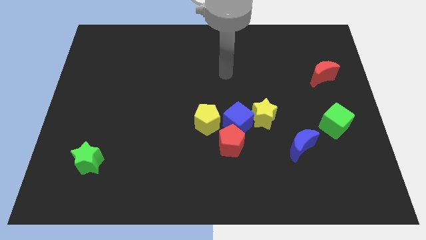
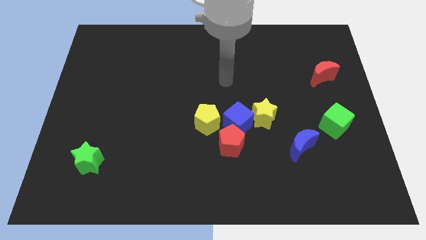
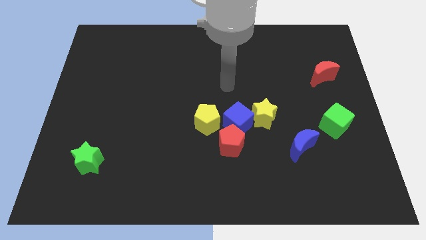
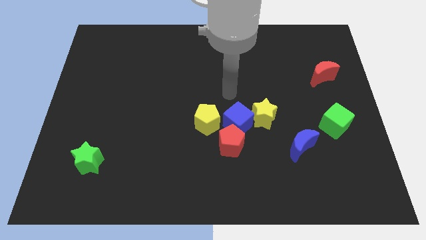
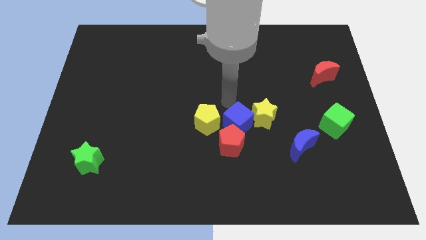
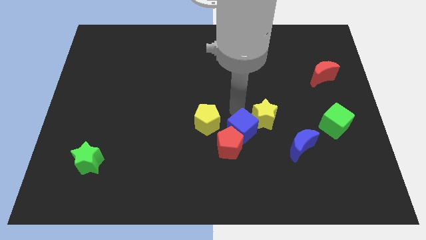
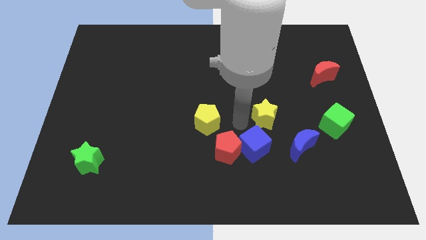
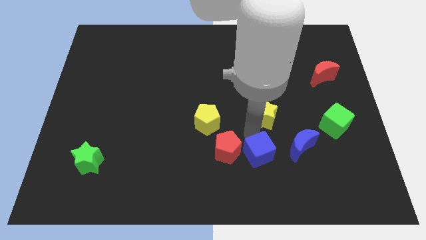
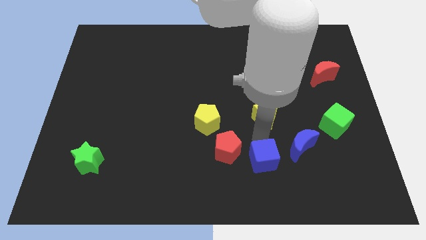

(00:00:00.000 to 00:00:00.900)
move the yellow star away from the blue cube

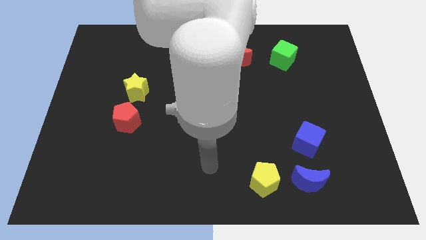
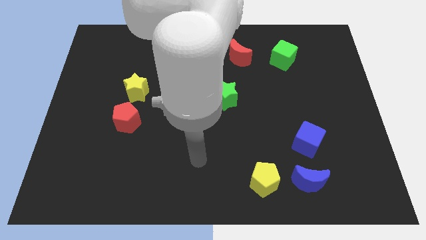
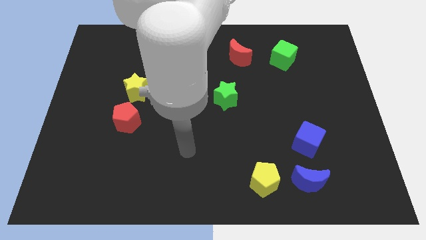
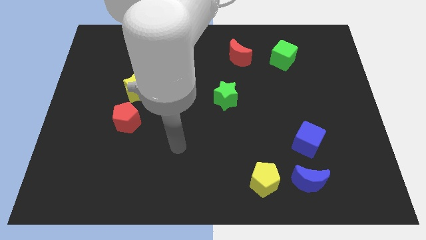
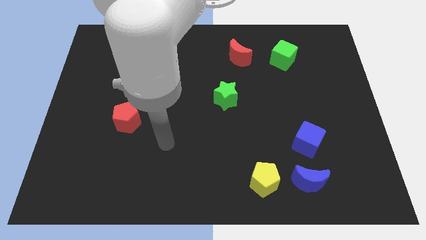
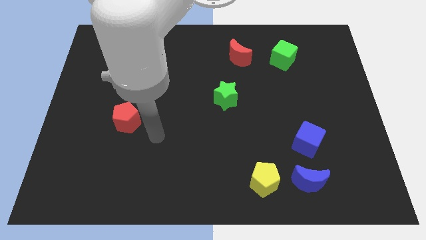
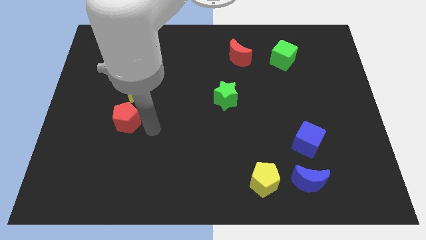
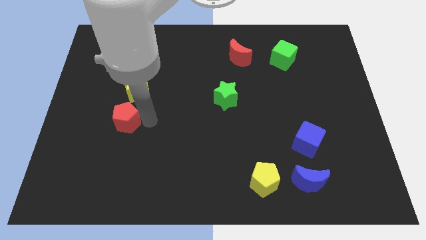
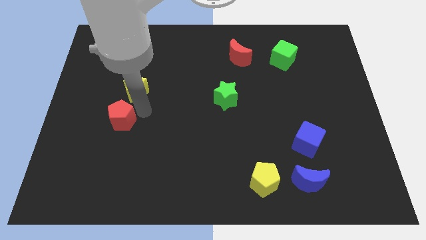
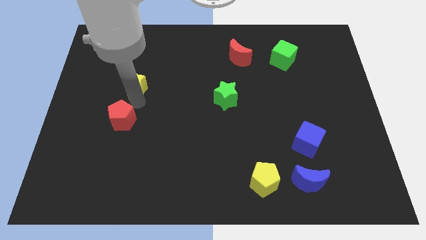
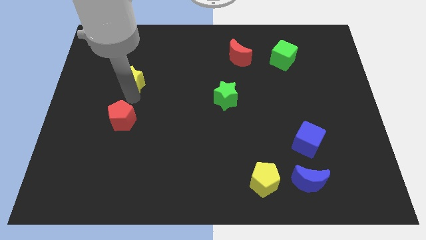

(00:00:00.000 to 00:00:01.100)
move the red pentagon away from the yellow star

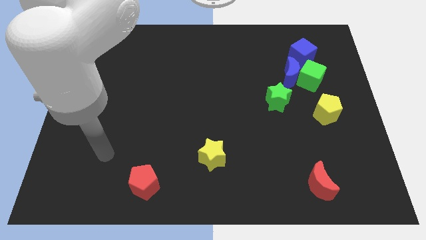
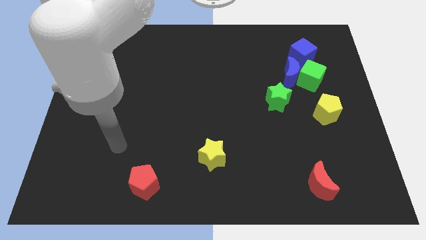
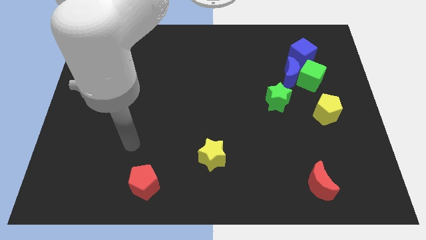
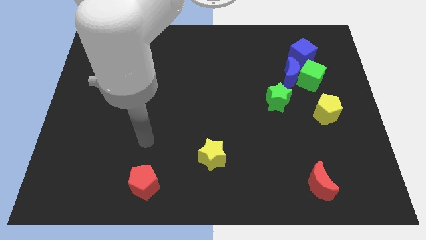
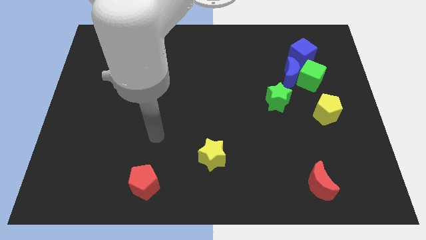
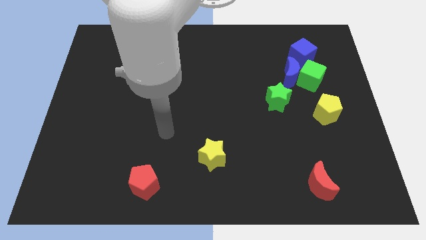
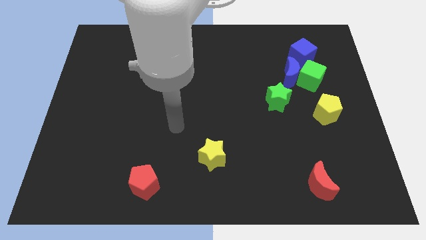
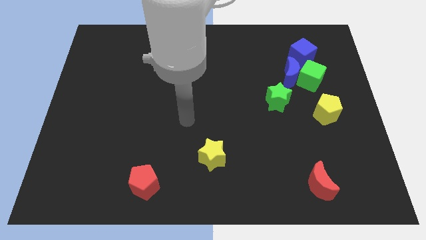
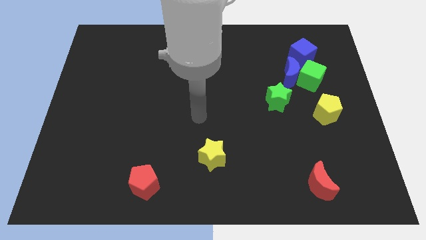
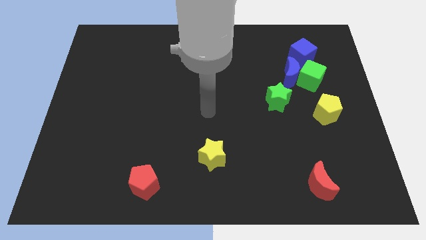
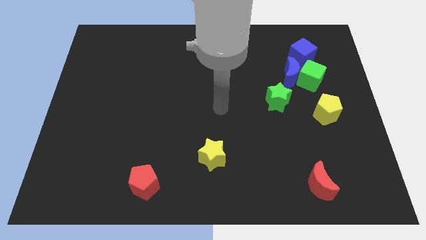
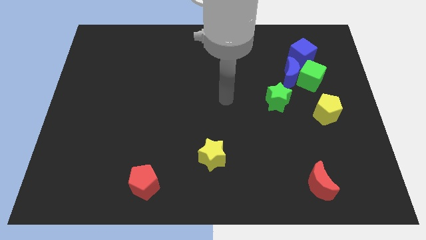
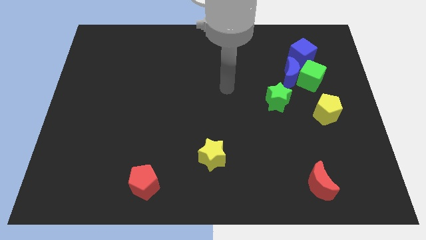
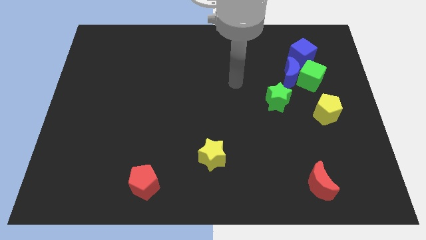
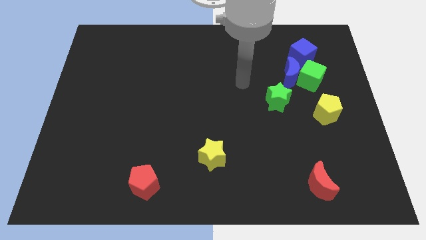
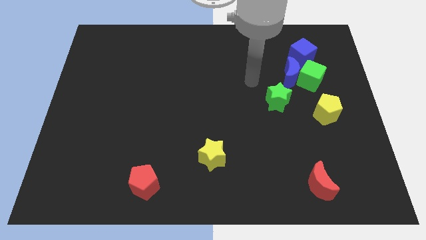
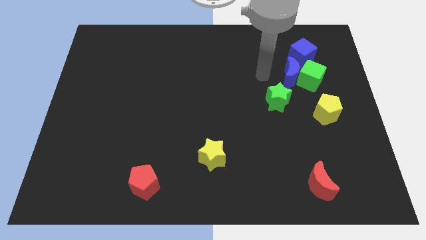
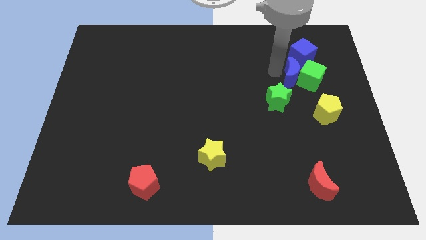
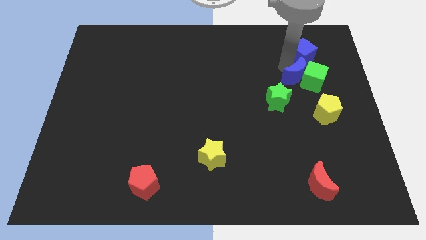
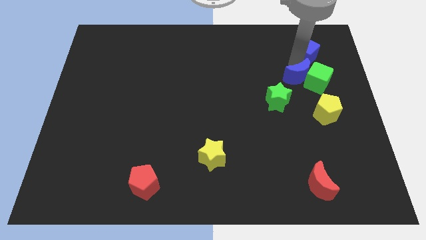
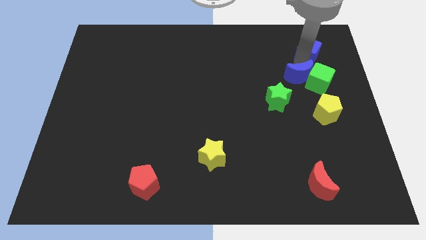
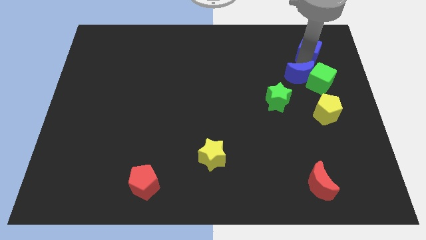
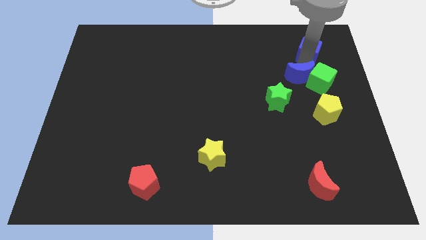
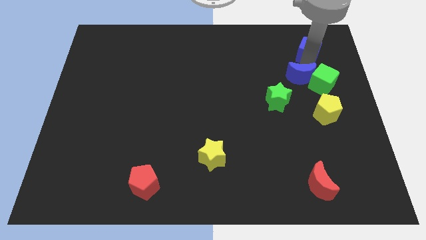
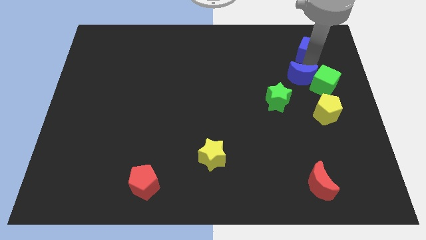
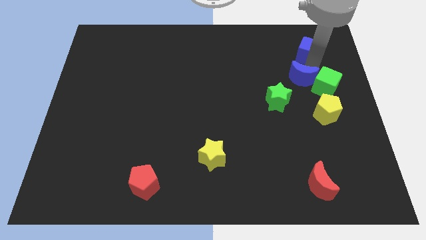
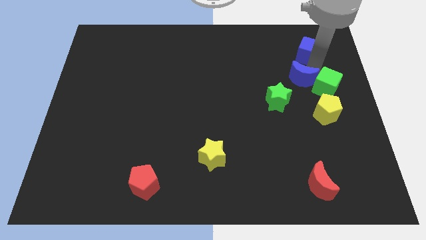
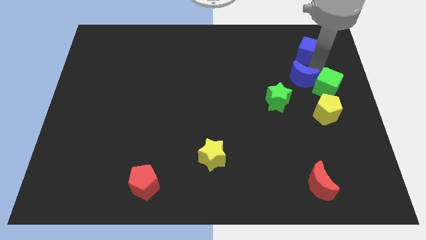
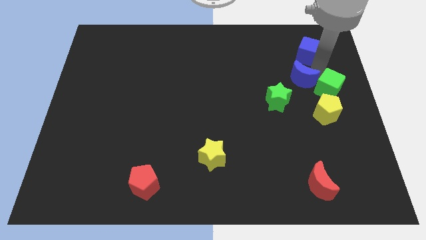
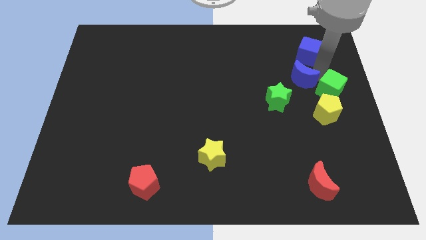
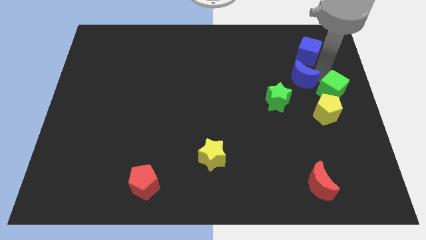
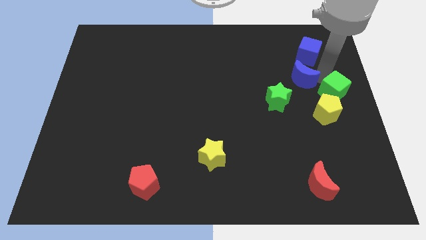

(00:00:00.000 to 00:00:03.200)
pull the green cube apart from the blue moon and blue cube

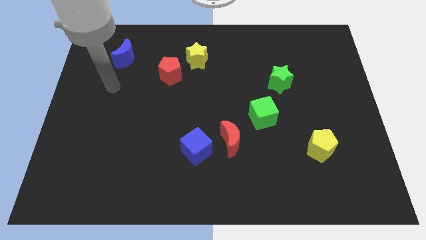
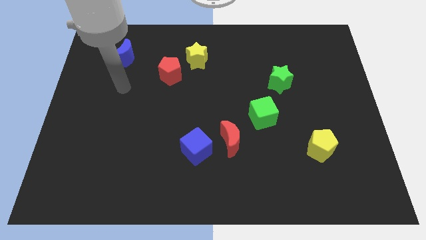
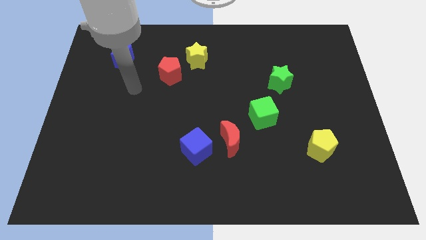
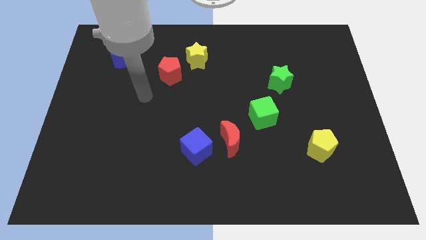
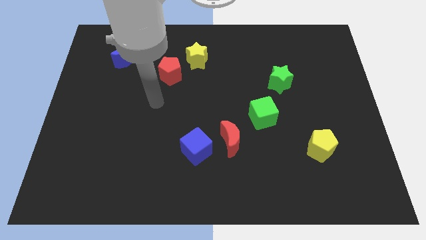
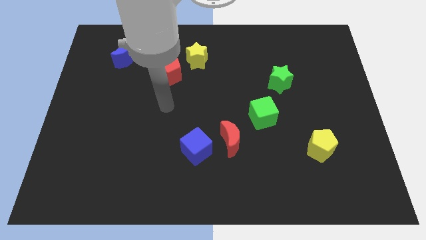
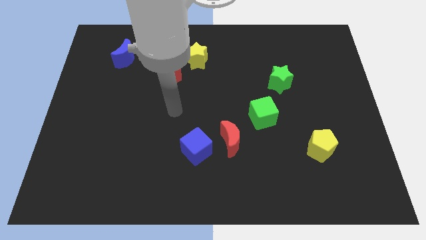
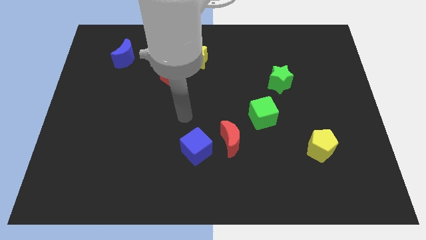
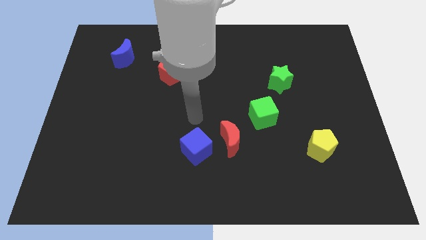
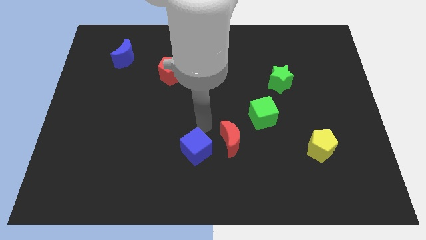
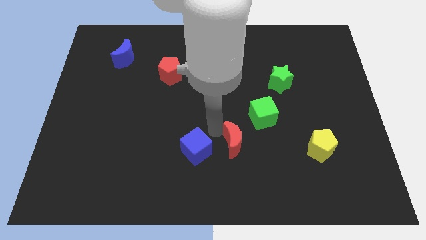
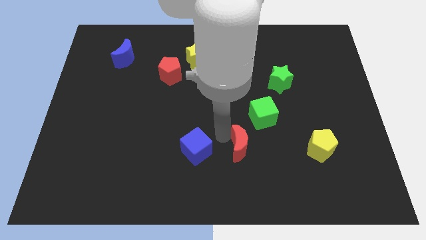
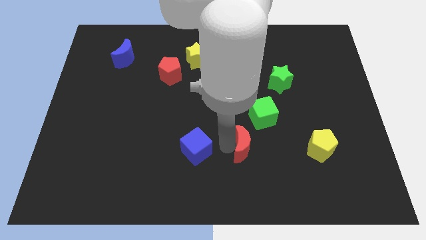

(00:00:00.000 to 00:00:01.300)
pull the blue cube apart from the red moon

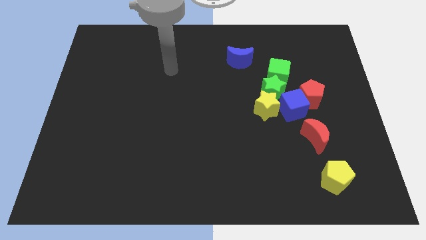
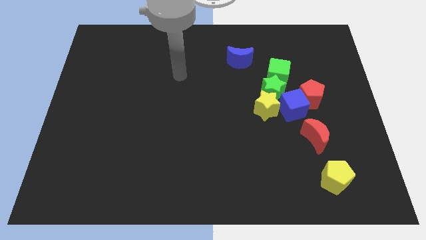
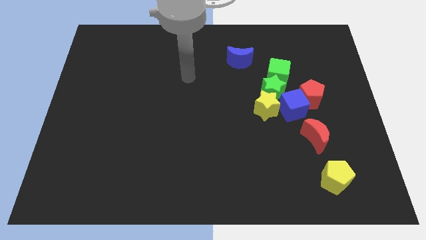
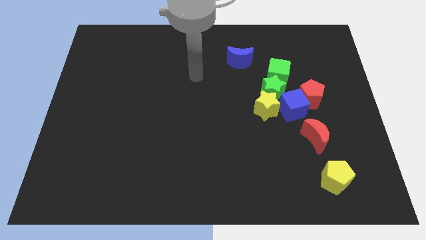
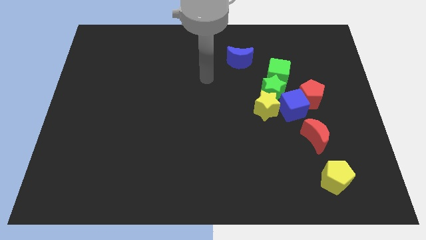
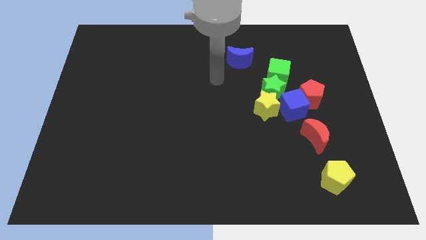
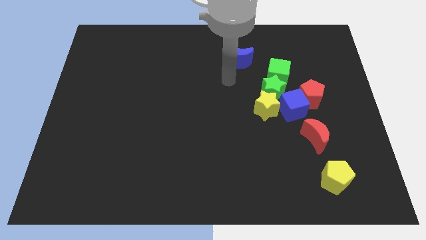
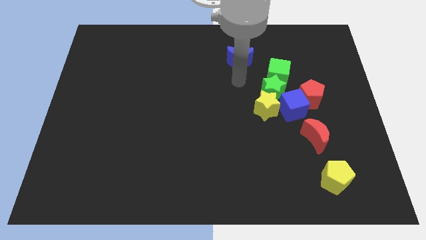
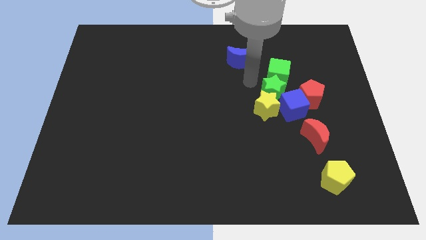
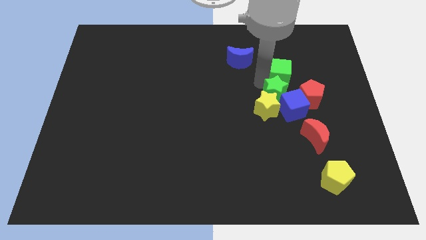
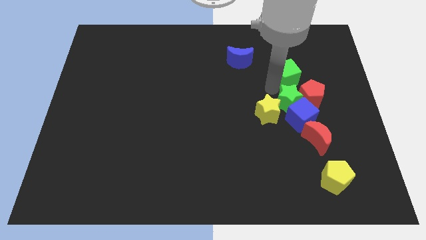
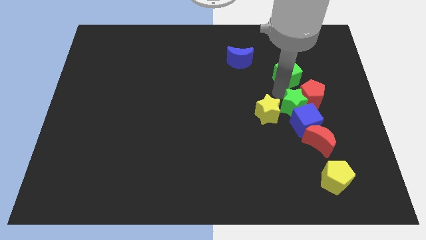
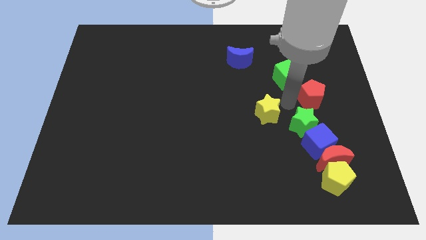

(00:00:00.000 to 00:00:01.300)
pull the yellow star apart from the green star and blue cube

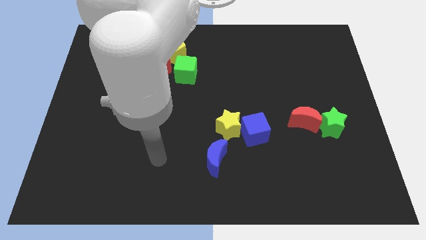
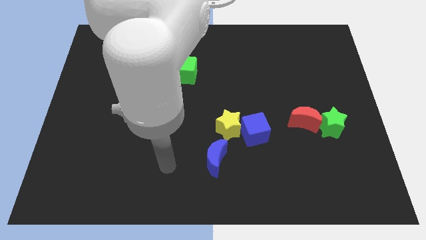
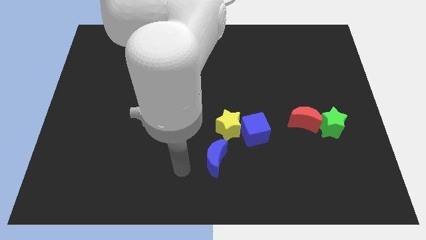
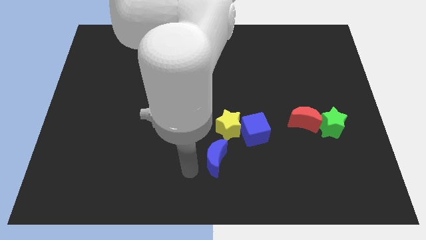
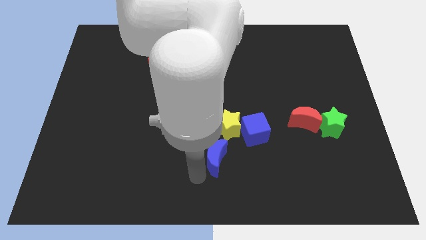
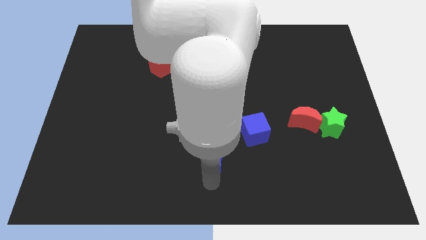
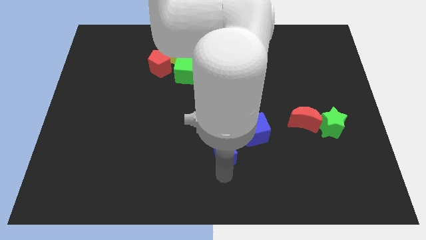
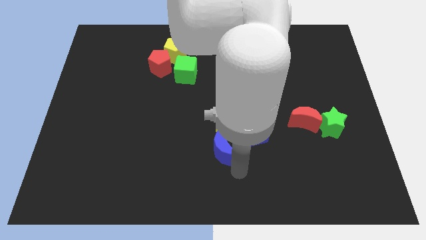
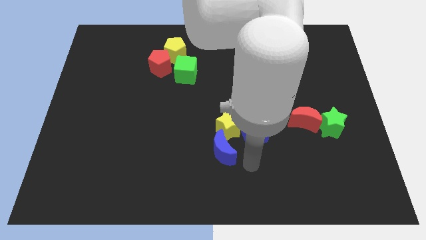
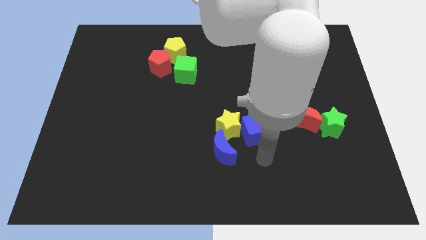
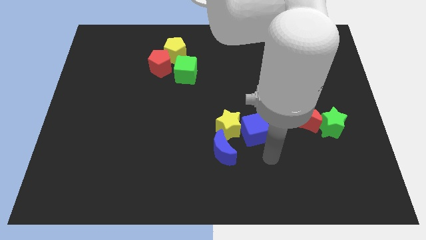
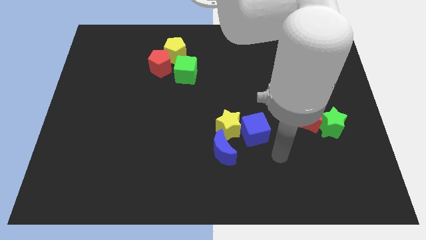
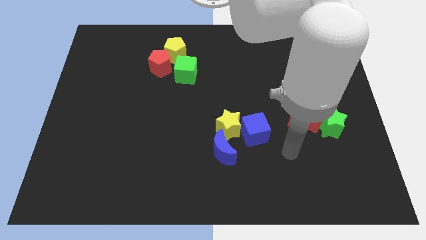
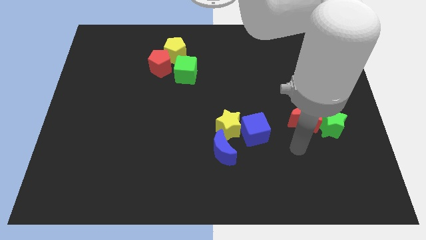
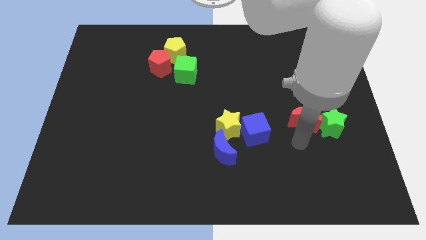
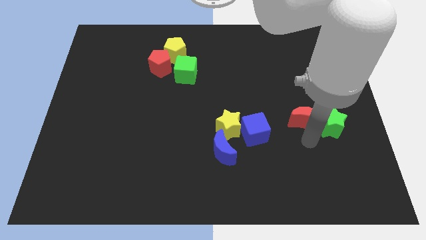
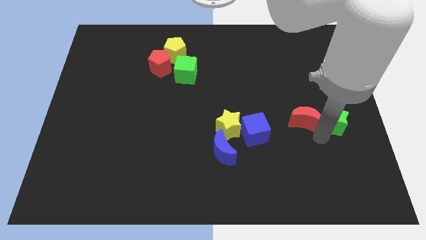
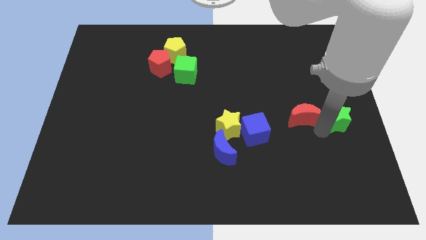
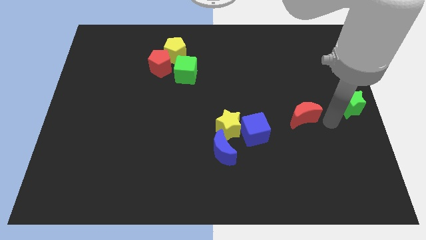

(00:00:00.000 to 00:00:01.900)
move the red moon away from the green star
